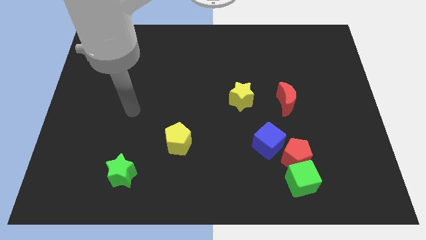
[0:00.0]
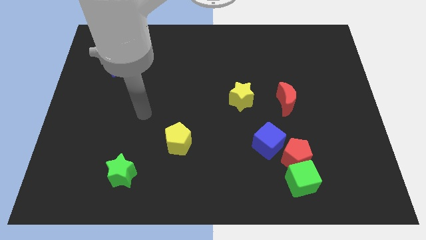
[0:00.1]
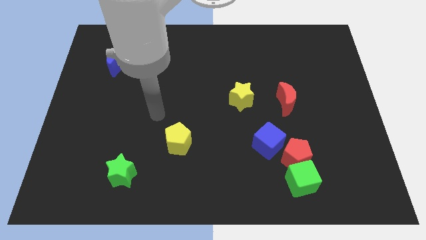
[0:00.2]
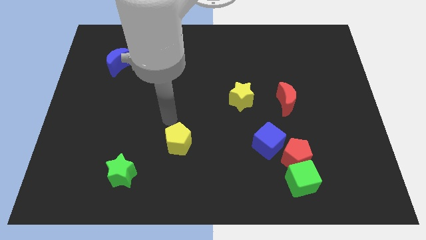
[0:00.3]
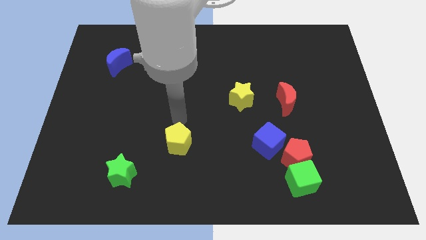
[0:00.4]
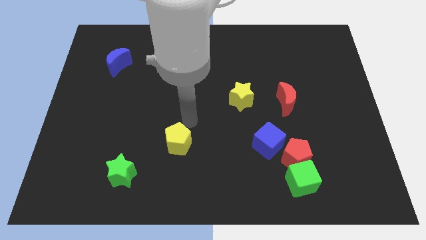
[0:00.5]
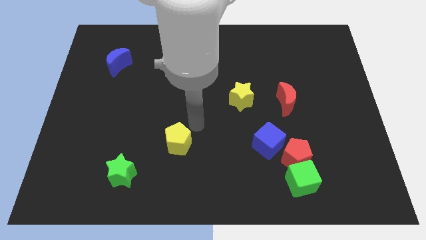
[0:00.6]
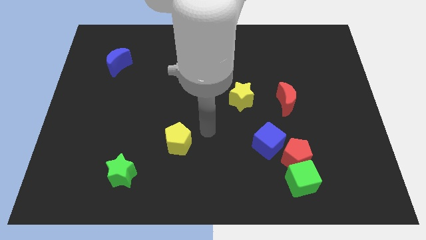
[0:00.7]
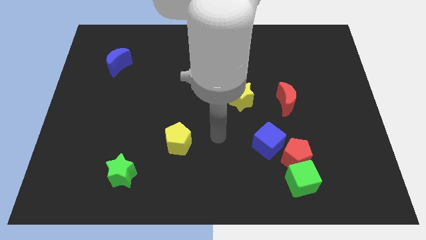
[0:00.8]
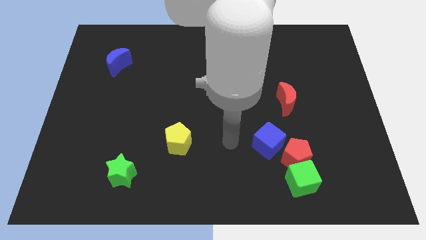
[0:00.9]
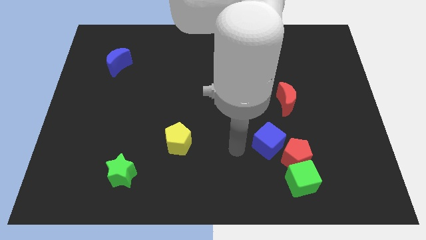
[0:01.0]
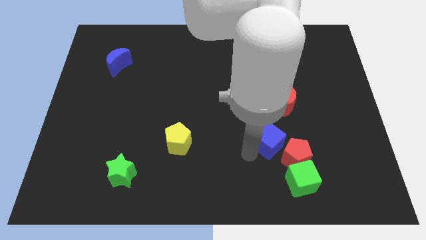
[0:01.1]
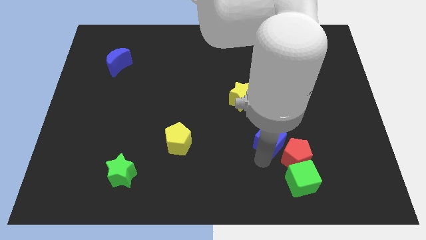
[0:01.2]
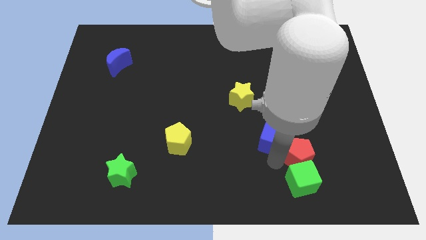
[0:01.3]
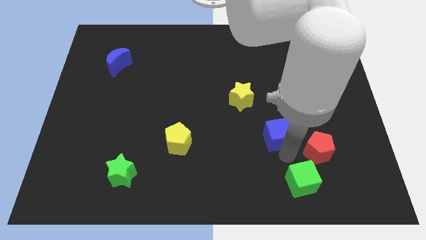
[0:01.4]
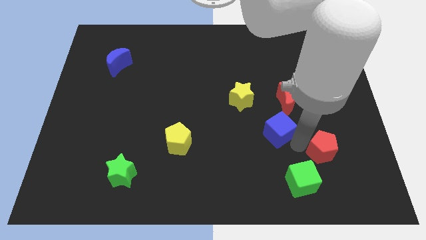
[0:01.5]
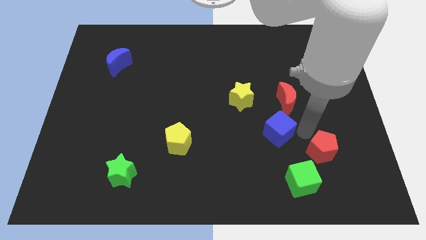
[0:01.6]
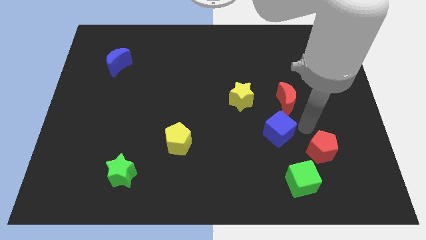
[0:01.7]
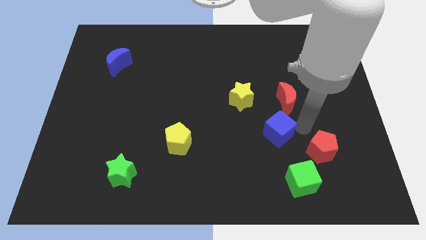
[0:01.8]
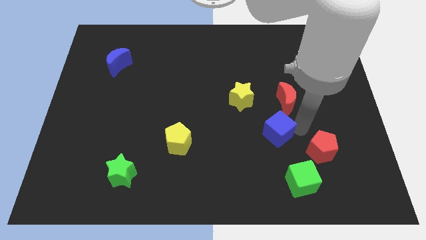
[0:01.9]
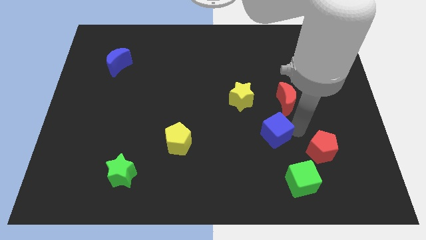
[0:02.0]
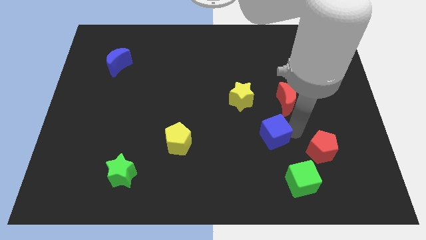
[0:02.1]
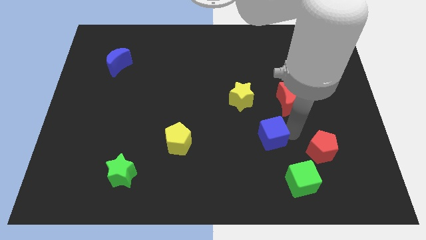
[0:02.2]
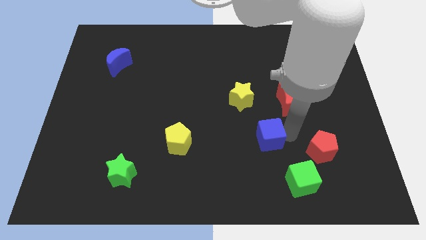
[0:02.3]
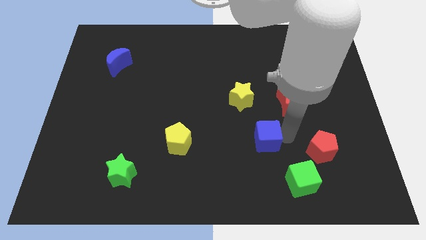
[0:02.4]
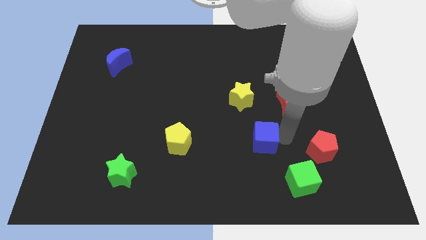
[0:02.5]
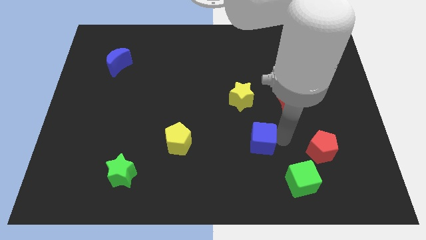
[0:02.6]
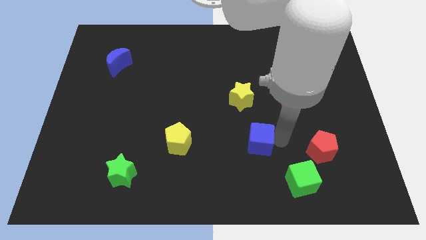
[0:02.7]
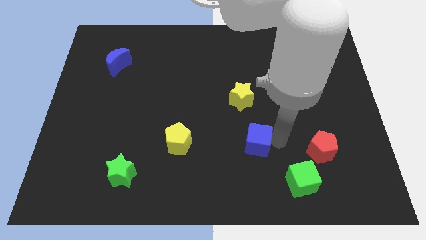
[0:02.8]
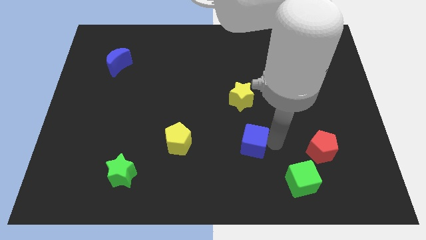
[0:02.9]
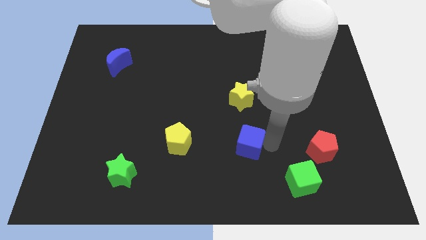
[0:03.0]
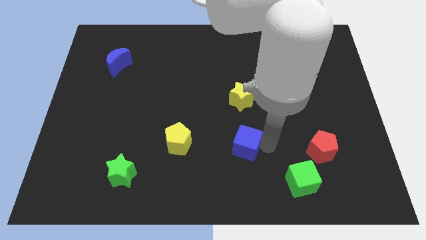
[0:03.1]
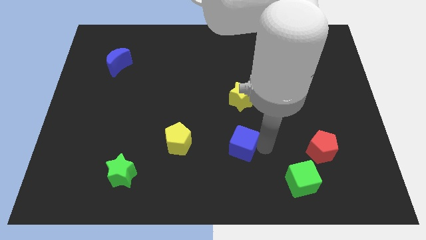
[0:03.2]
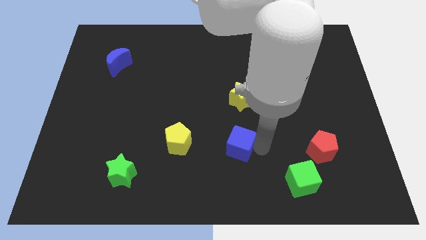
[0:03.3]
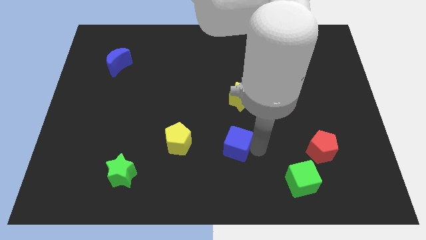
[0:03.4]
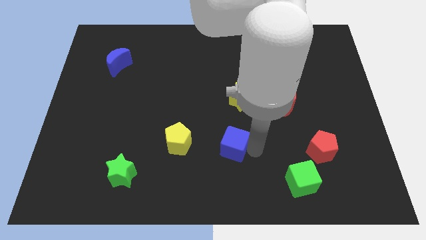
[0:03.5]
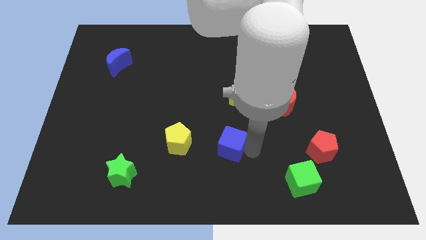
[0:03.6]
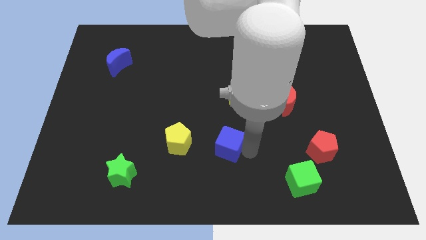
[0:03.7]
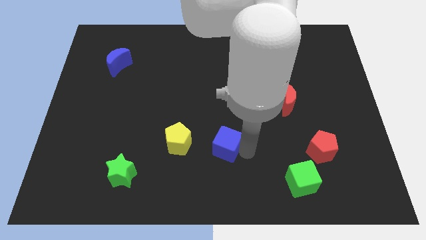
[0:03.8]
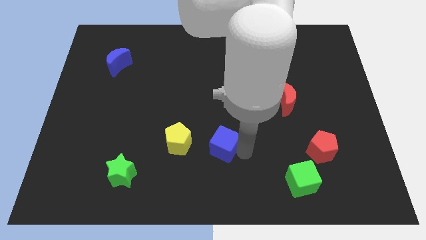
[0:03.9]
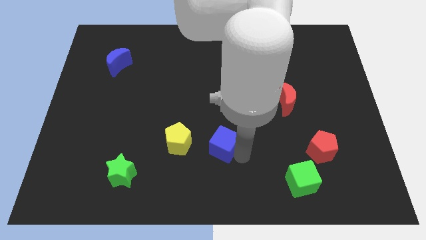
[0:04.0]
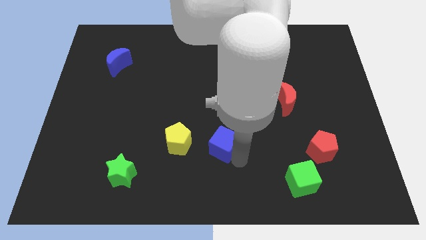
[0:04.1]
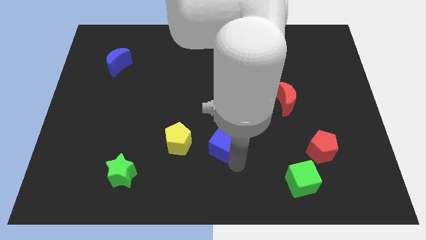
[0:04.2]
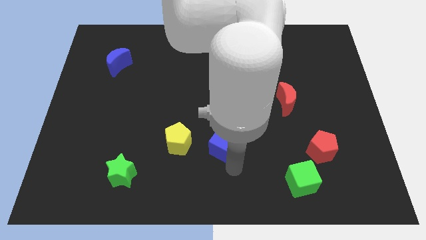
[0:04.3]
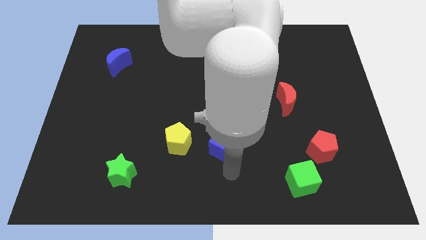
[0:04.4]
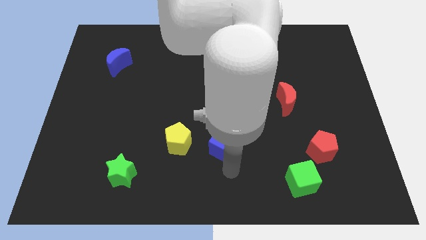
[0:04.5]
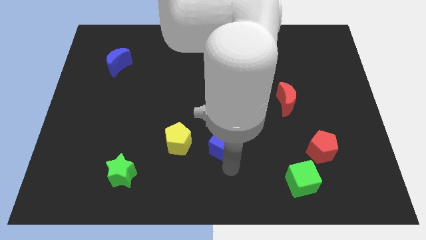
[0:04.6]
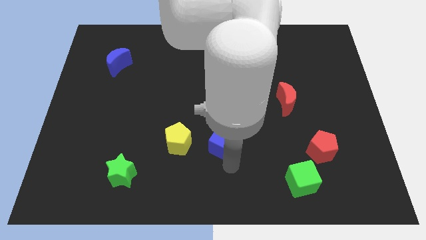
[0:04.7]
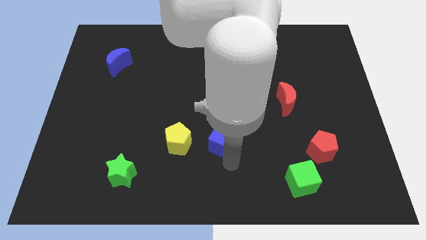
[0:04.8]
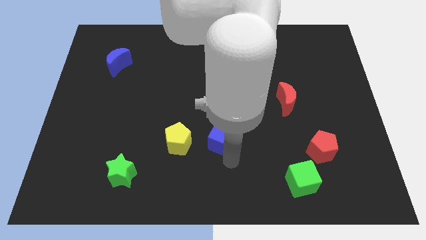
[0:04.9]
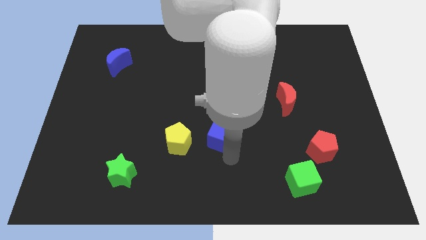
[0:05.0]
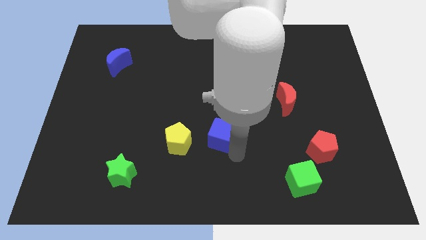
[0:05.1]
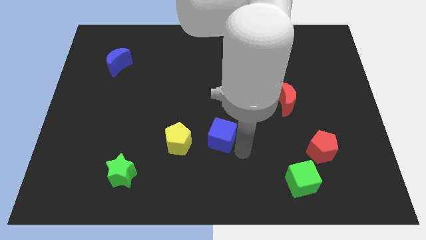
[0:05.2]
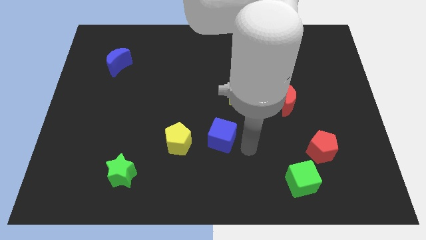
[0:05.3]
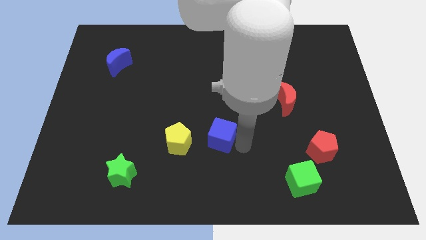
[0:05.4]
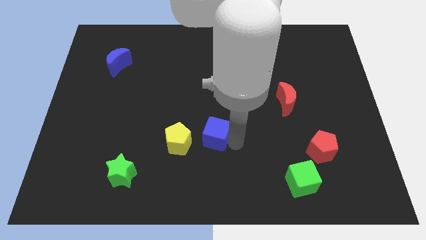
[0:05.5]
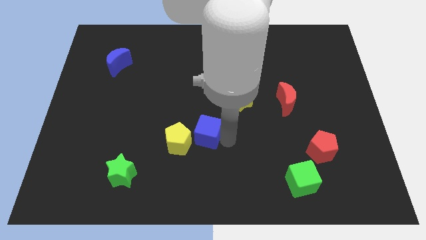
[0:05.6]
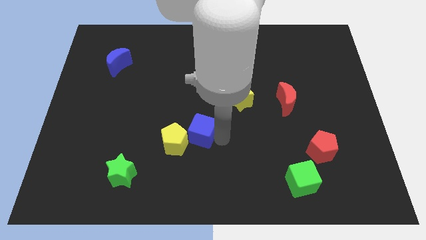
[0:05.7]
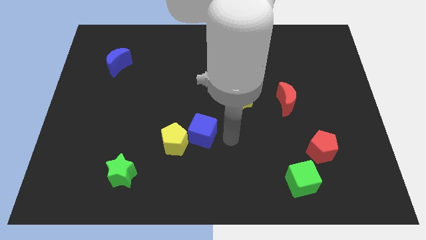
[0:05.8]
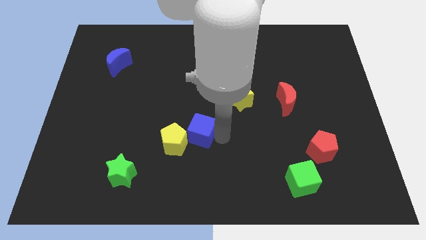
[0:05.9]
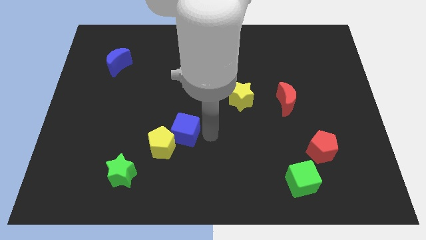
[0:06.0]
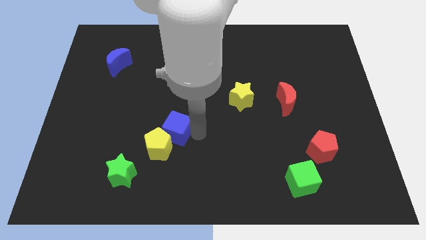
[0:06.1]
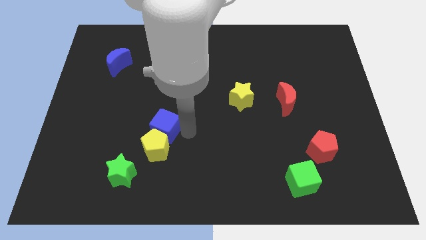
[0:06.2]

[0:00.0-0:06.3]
put the blue cube to the top left of the yellow pentagon

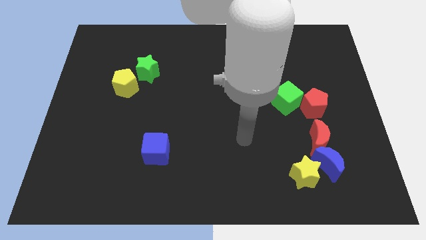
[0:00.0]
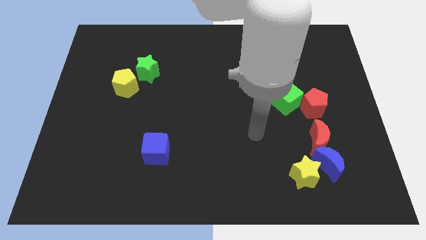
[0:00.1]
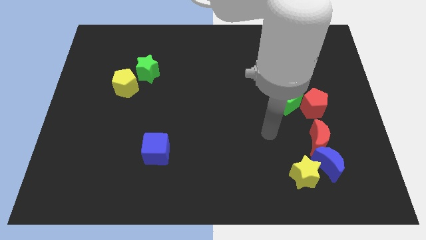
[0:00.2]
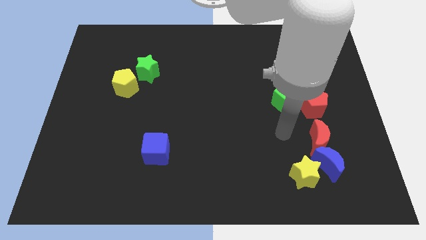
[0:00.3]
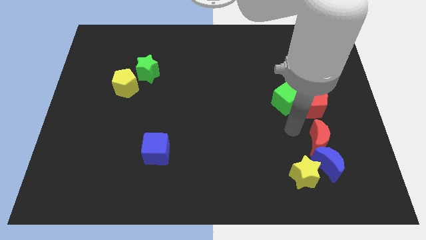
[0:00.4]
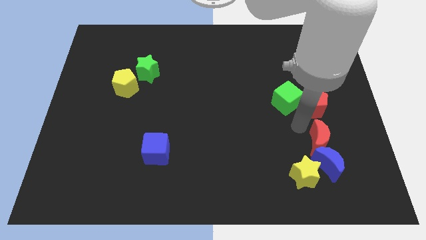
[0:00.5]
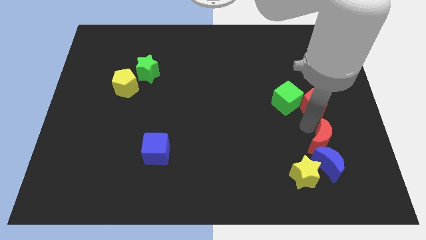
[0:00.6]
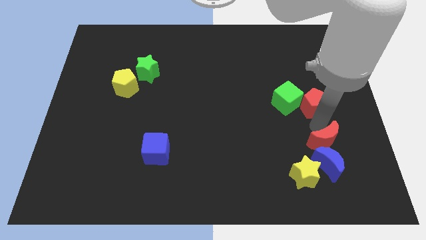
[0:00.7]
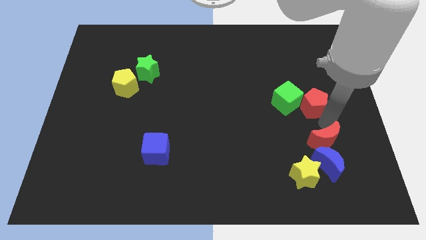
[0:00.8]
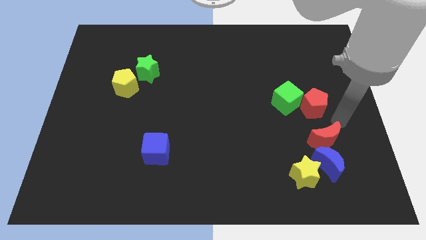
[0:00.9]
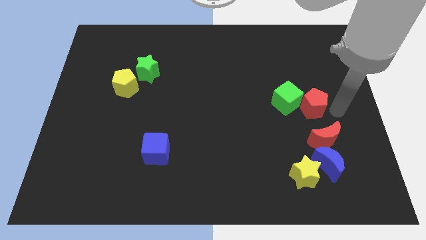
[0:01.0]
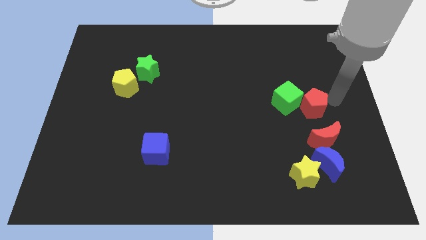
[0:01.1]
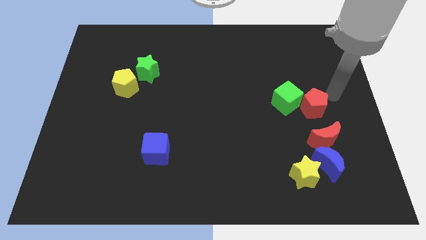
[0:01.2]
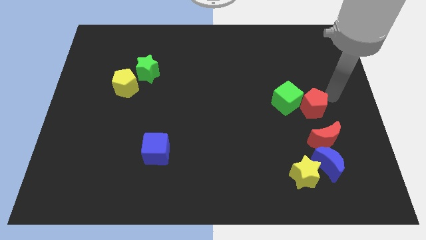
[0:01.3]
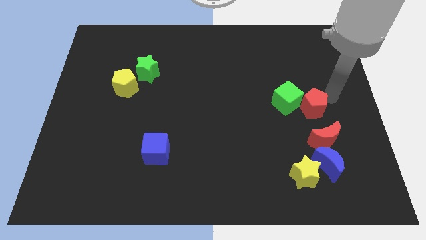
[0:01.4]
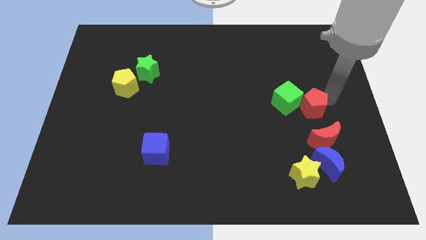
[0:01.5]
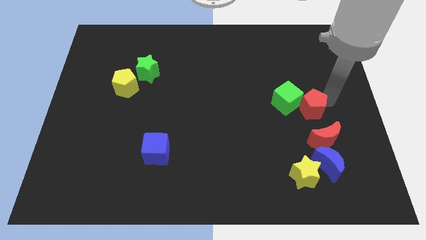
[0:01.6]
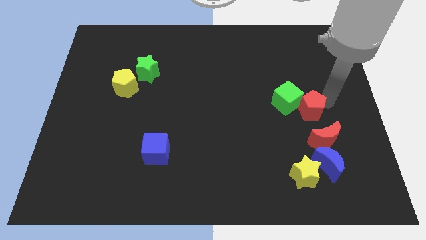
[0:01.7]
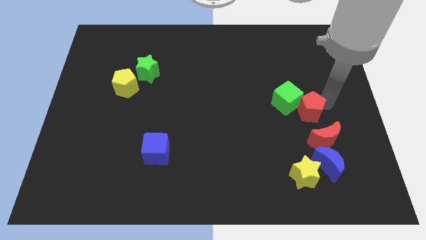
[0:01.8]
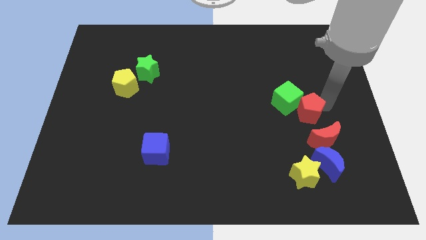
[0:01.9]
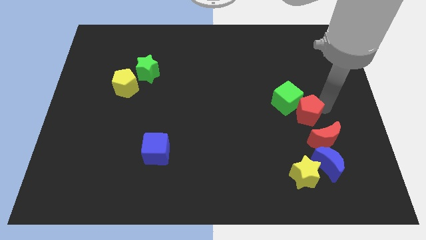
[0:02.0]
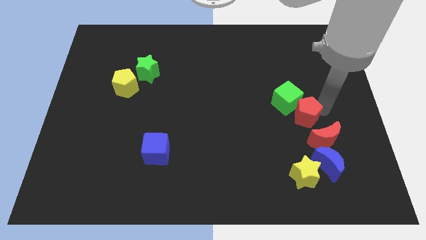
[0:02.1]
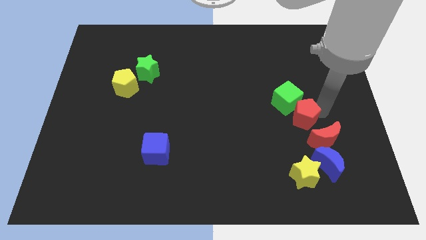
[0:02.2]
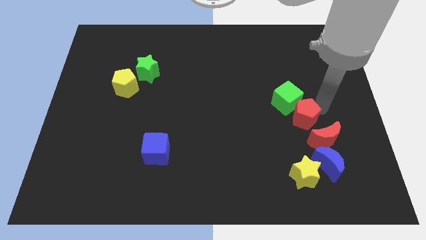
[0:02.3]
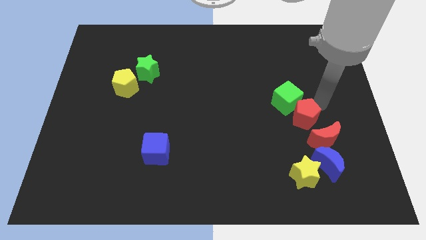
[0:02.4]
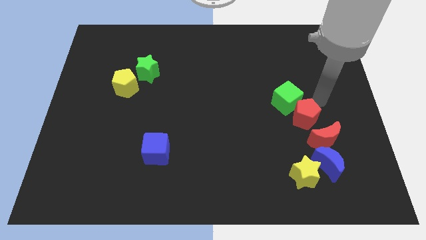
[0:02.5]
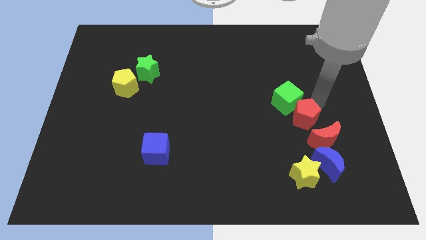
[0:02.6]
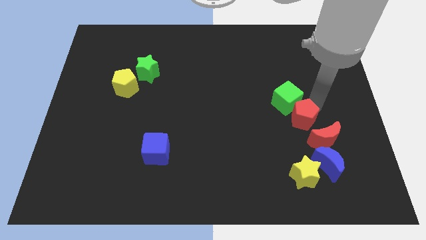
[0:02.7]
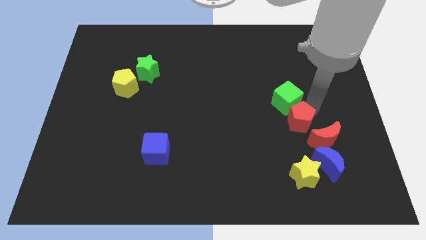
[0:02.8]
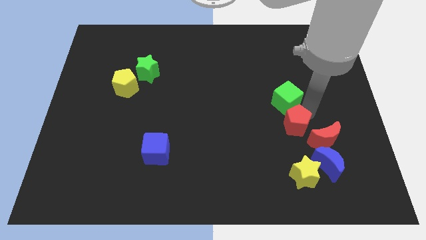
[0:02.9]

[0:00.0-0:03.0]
push the red pentagon to the top left side of the blue moon
